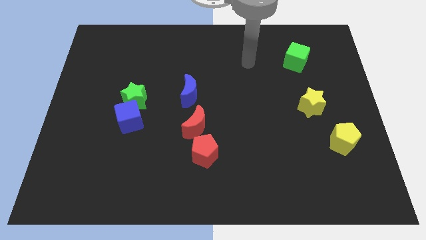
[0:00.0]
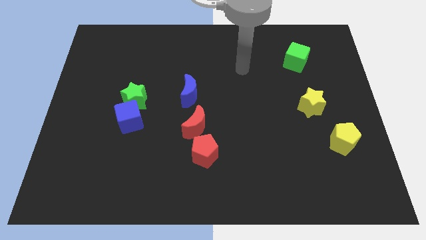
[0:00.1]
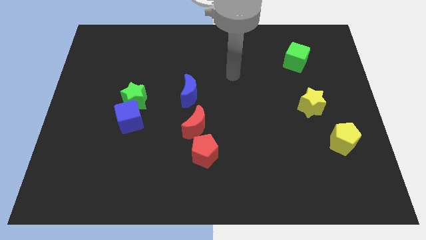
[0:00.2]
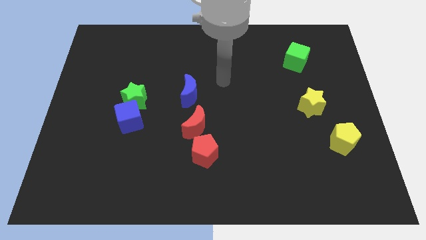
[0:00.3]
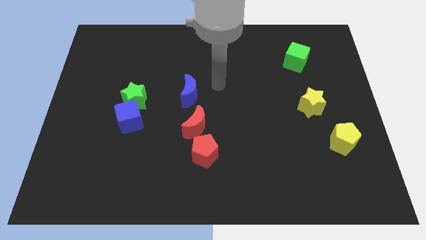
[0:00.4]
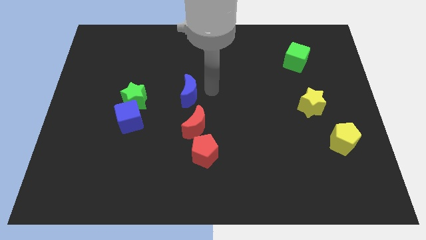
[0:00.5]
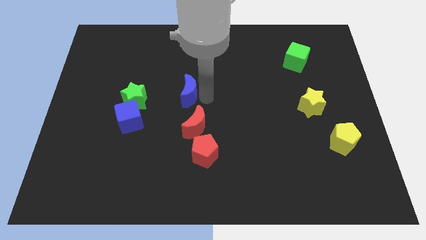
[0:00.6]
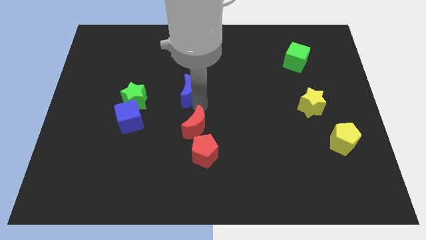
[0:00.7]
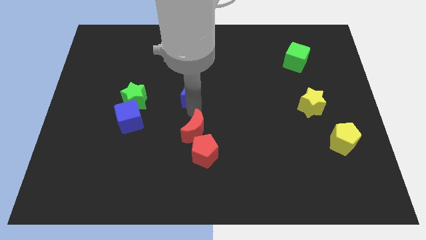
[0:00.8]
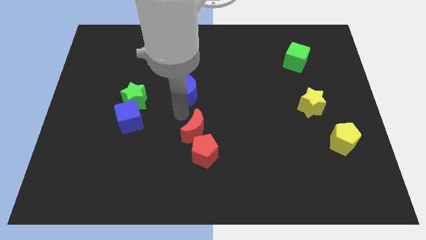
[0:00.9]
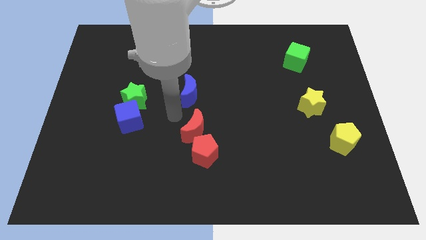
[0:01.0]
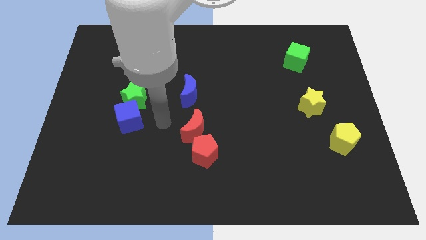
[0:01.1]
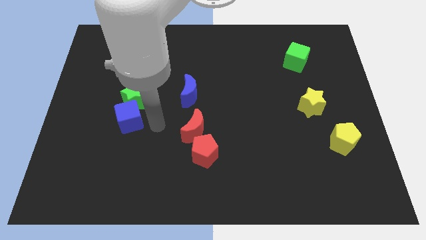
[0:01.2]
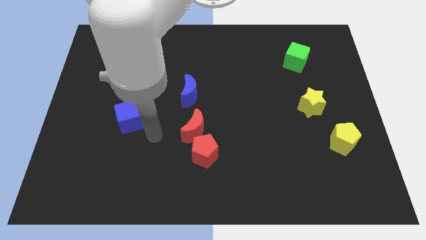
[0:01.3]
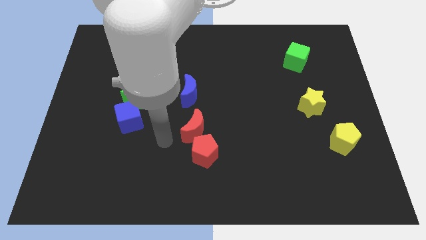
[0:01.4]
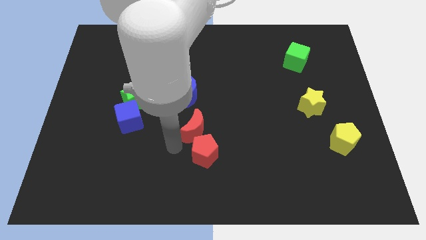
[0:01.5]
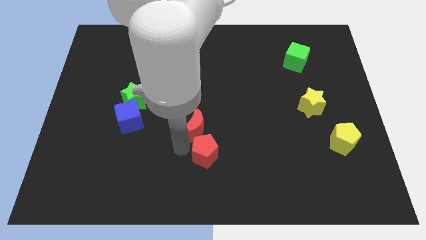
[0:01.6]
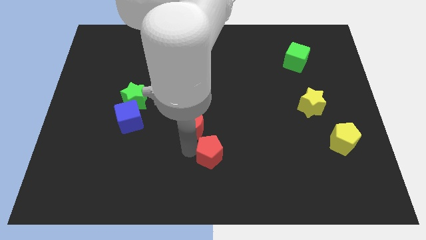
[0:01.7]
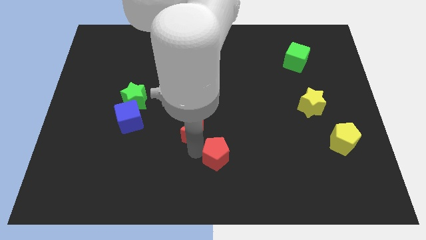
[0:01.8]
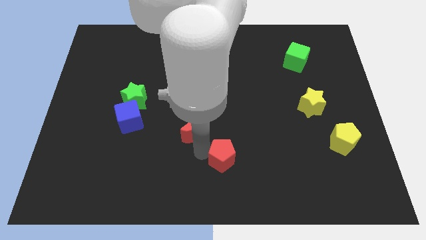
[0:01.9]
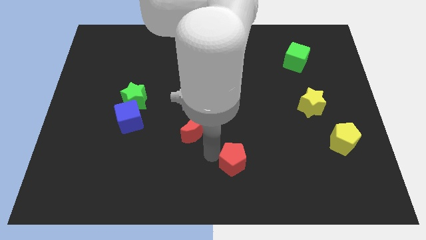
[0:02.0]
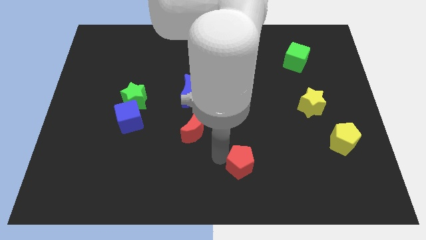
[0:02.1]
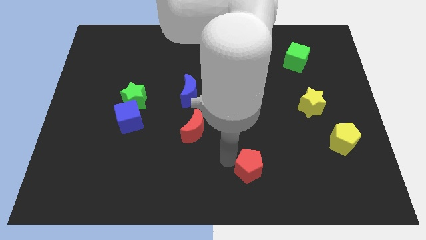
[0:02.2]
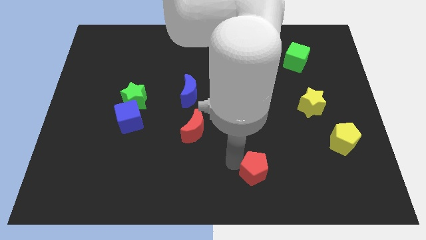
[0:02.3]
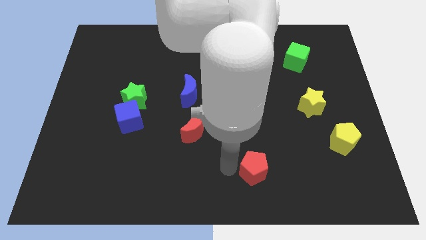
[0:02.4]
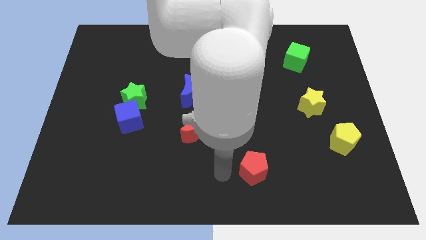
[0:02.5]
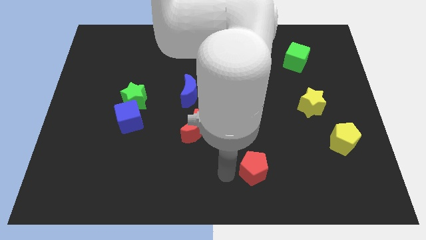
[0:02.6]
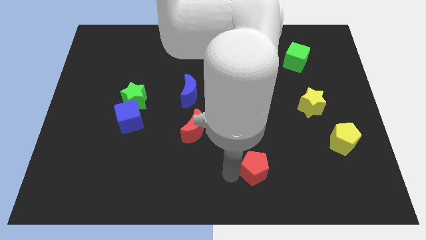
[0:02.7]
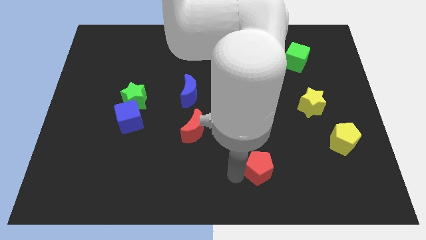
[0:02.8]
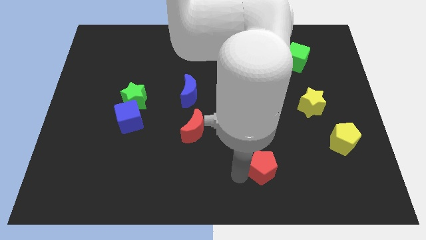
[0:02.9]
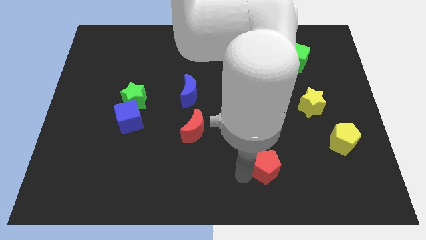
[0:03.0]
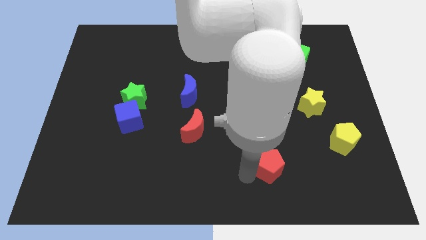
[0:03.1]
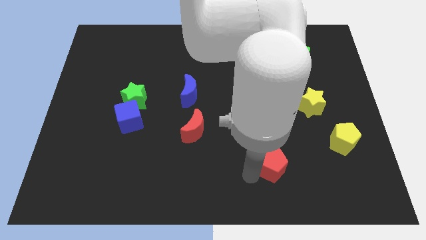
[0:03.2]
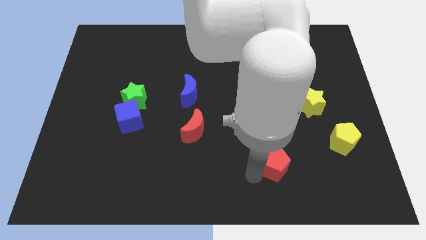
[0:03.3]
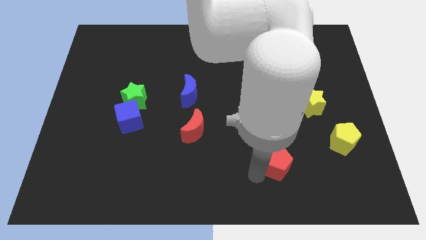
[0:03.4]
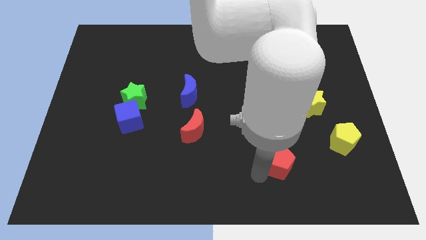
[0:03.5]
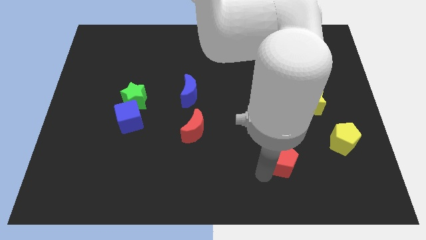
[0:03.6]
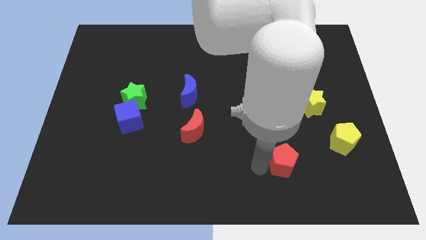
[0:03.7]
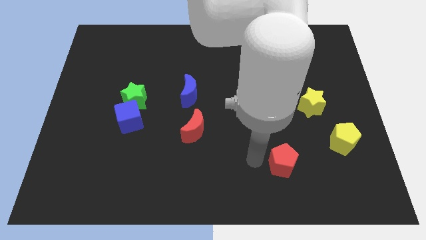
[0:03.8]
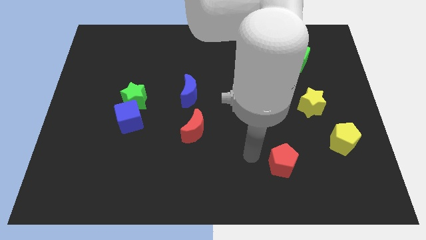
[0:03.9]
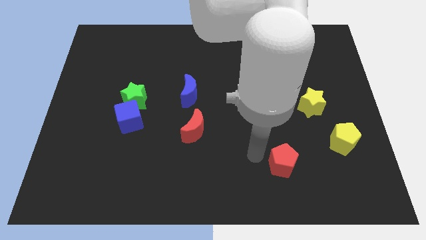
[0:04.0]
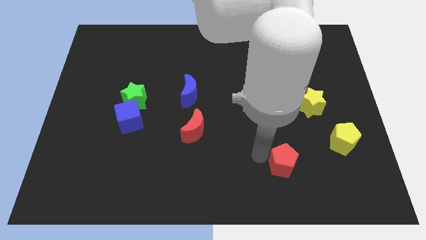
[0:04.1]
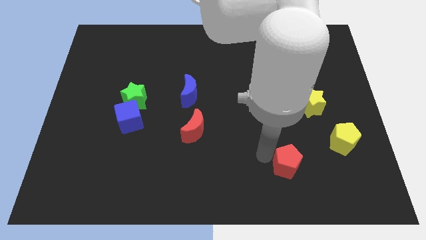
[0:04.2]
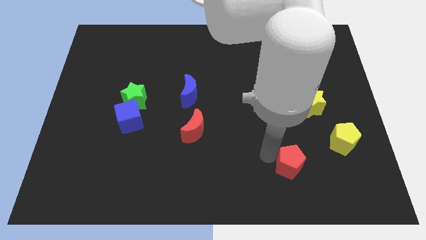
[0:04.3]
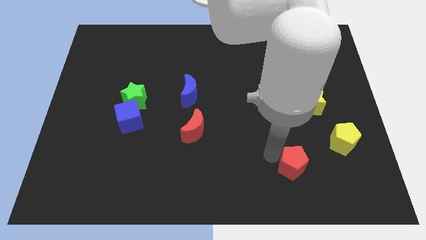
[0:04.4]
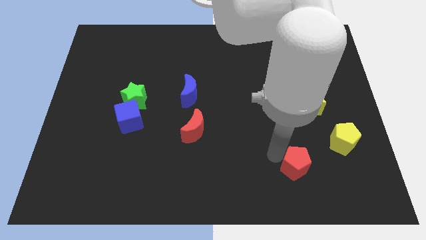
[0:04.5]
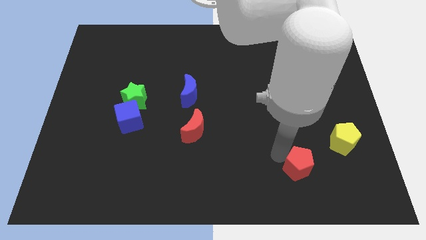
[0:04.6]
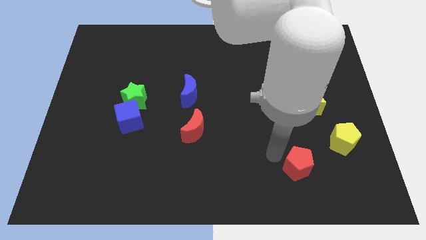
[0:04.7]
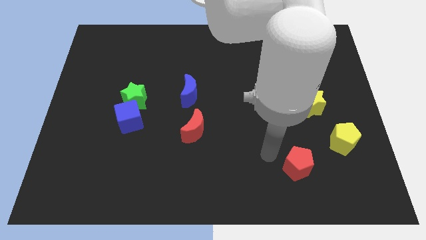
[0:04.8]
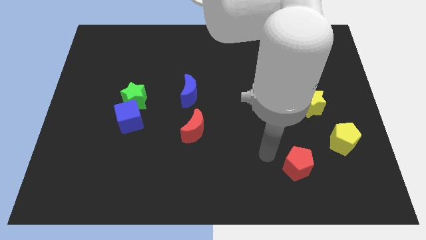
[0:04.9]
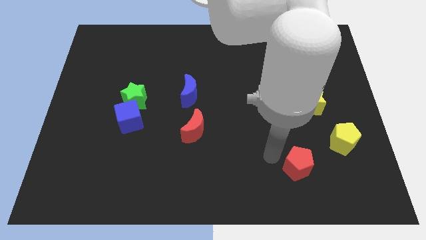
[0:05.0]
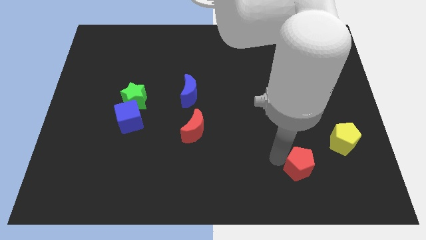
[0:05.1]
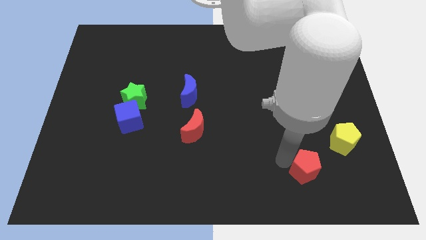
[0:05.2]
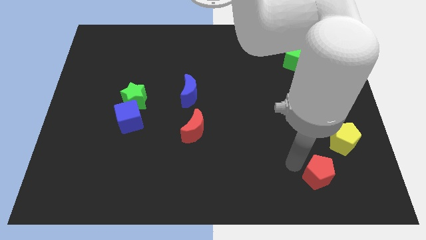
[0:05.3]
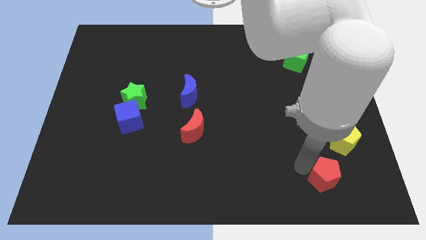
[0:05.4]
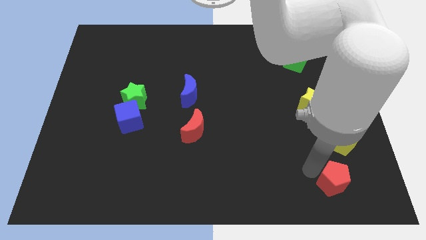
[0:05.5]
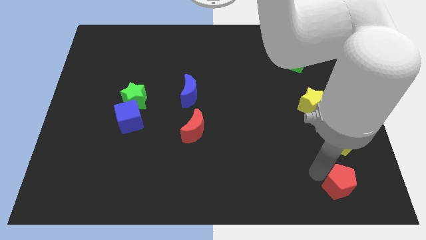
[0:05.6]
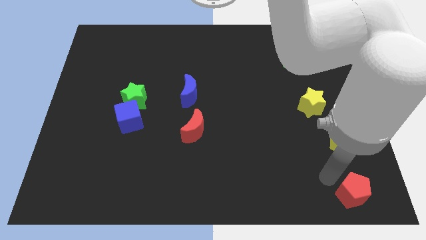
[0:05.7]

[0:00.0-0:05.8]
push the red pentagon to the bottom right of the board
